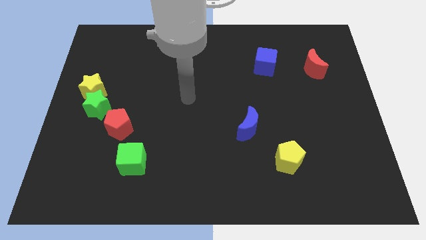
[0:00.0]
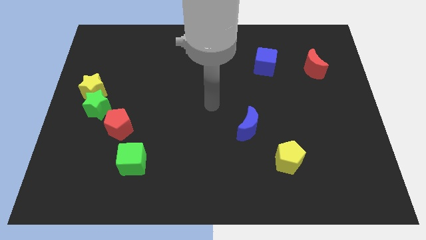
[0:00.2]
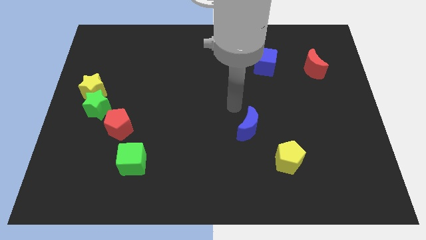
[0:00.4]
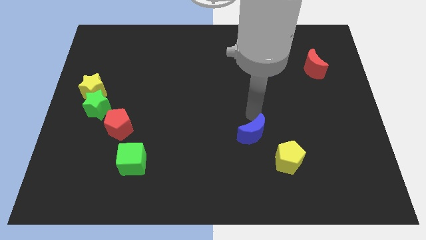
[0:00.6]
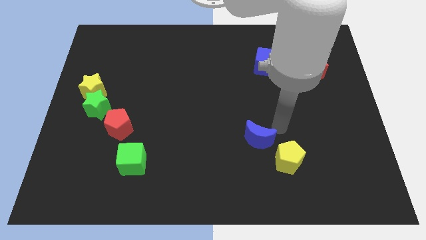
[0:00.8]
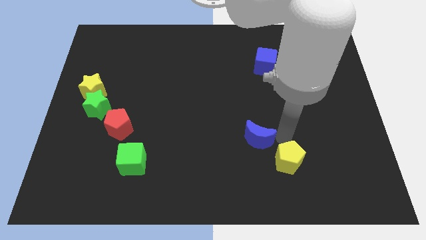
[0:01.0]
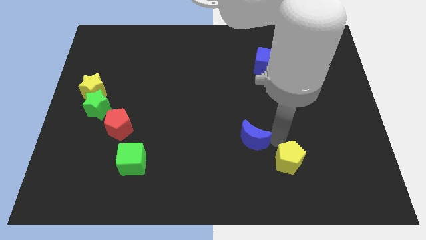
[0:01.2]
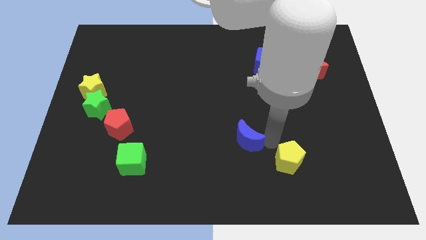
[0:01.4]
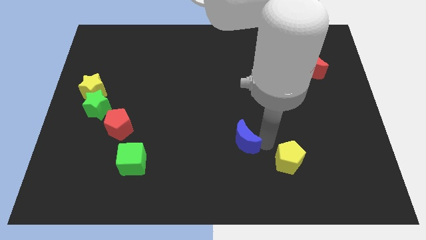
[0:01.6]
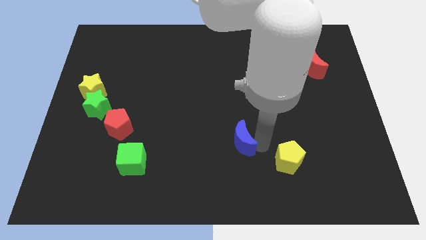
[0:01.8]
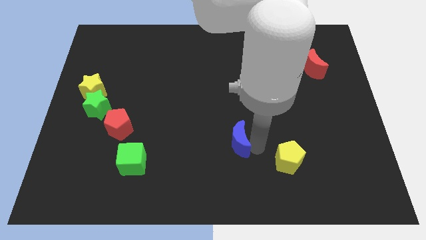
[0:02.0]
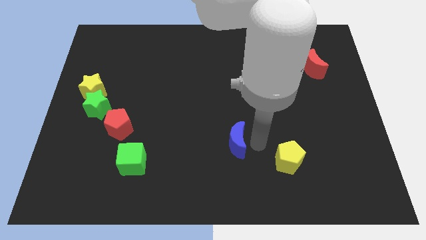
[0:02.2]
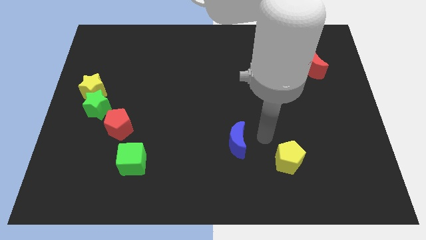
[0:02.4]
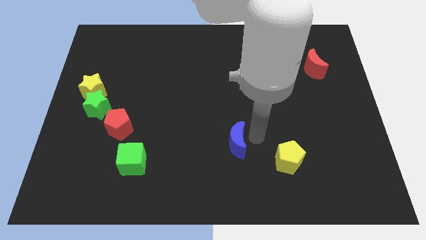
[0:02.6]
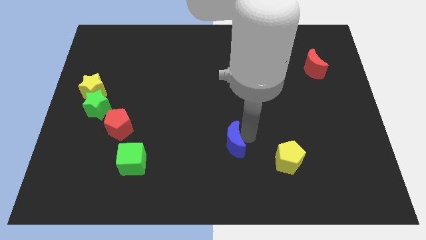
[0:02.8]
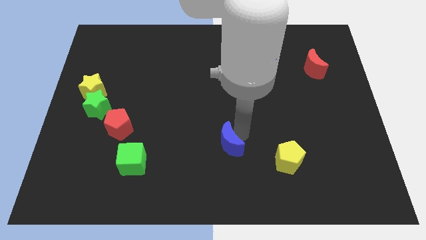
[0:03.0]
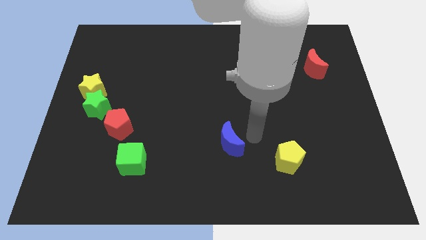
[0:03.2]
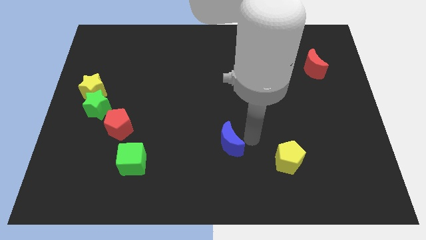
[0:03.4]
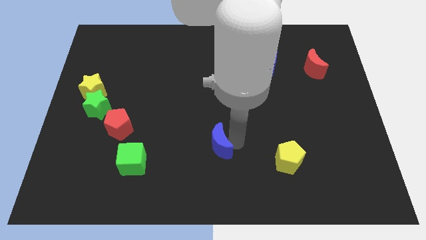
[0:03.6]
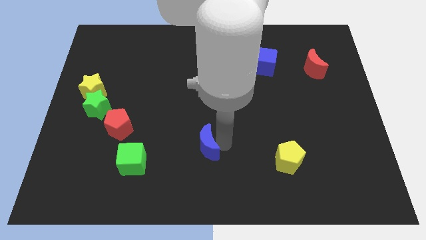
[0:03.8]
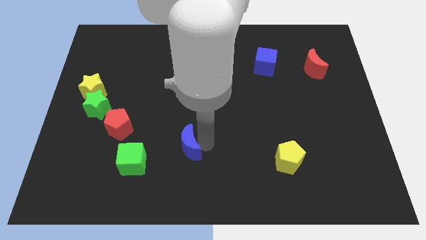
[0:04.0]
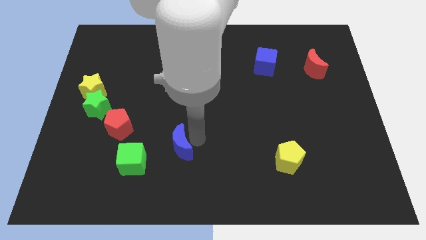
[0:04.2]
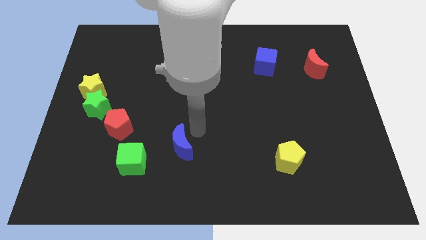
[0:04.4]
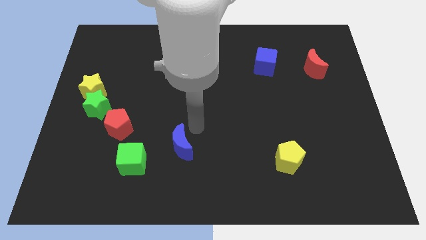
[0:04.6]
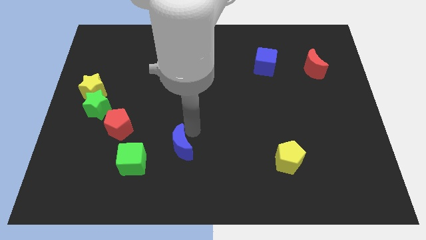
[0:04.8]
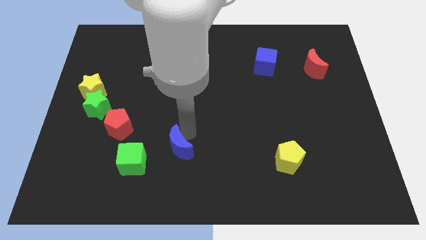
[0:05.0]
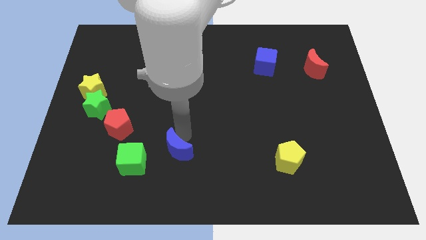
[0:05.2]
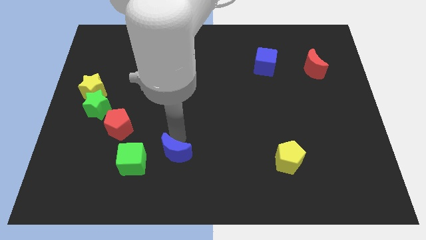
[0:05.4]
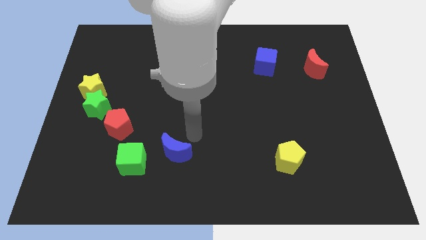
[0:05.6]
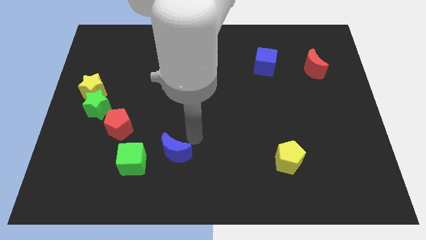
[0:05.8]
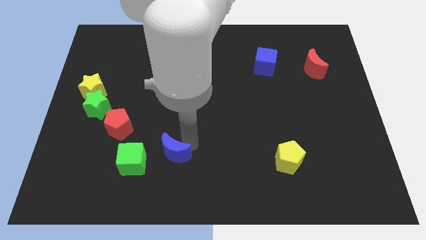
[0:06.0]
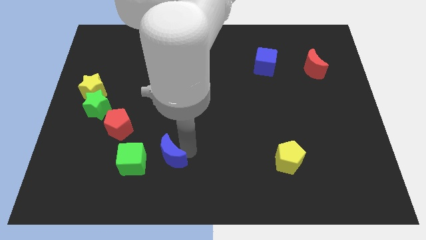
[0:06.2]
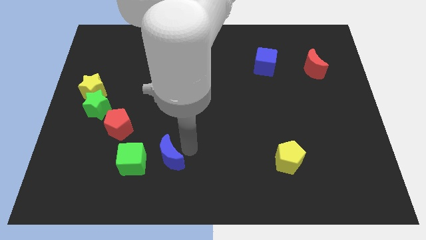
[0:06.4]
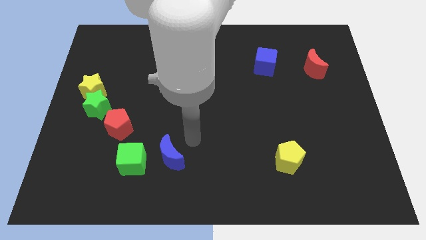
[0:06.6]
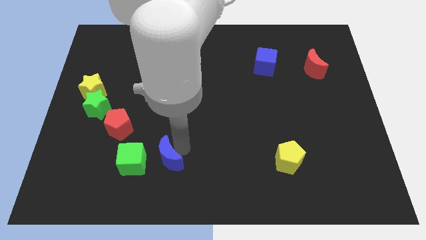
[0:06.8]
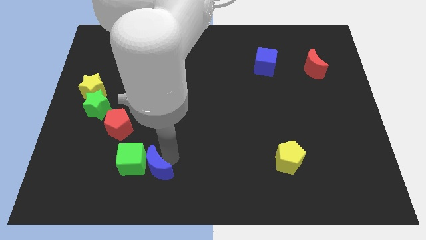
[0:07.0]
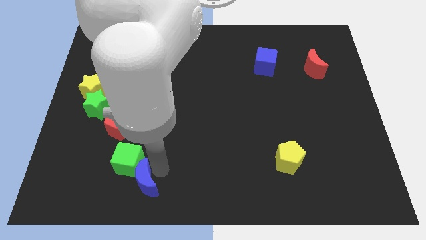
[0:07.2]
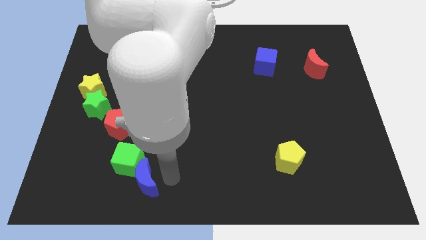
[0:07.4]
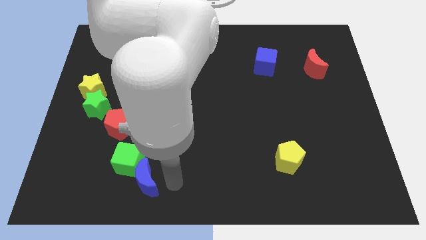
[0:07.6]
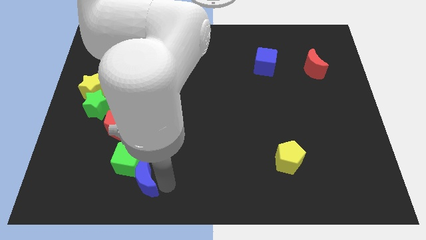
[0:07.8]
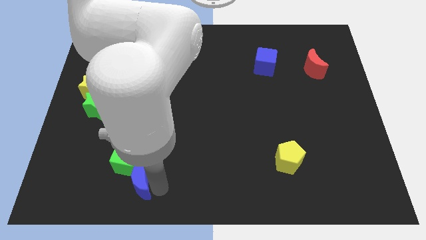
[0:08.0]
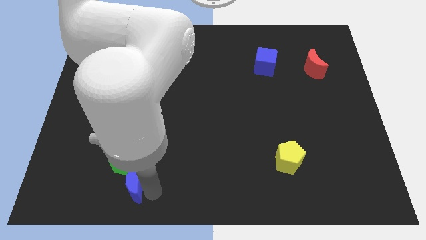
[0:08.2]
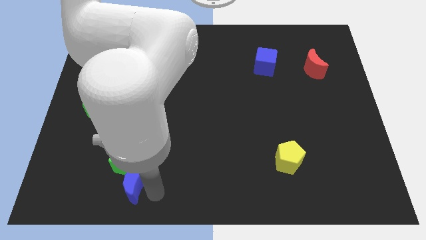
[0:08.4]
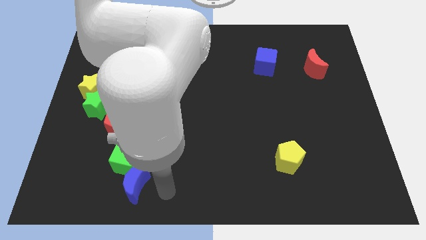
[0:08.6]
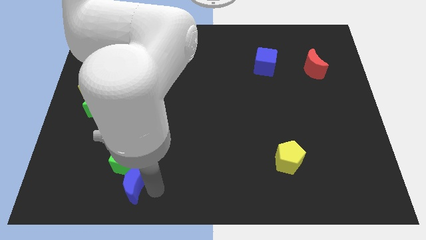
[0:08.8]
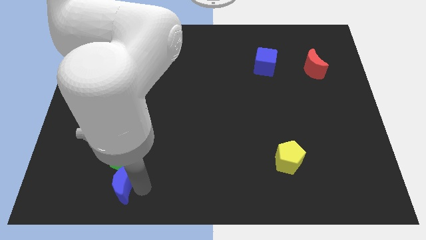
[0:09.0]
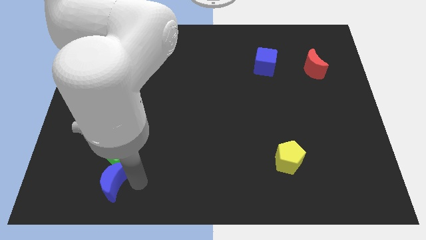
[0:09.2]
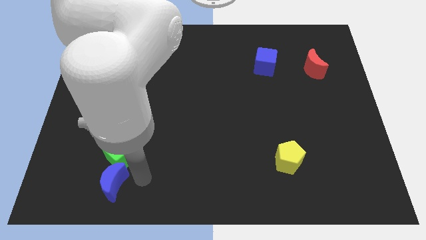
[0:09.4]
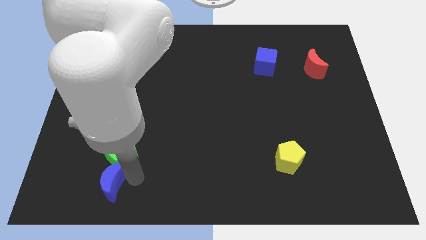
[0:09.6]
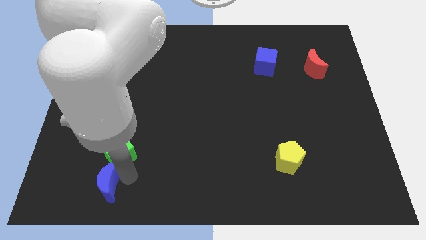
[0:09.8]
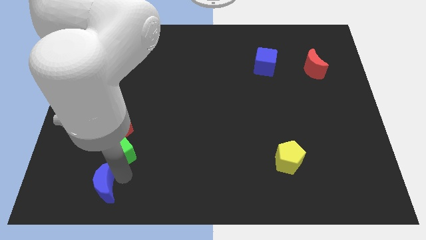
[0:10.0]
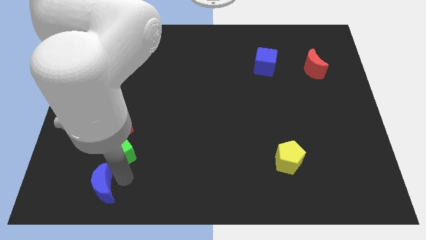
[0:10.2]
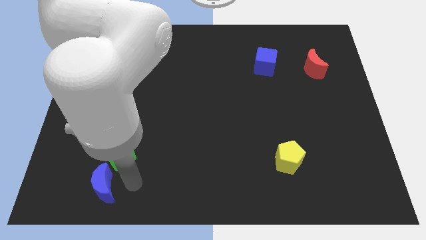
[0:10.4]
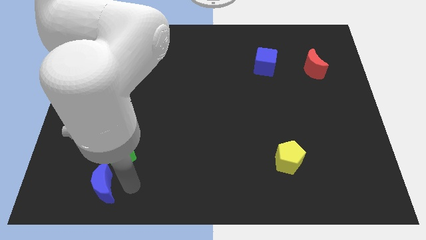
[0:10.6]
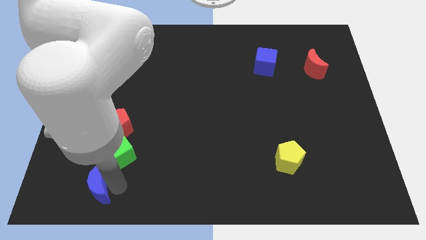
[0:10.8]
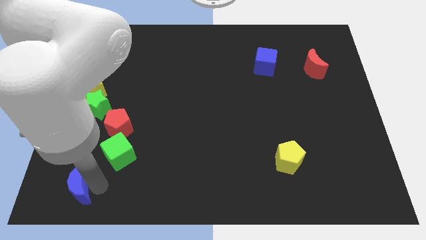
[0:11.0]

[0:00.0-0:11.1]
move the blue moon to the bottom left
